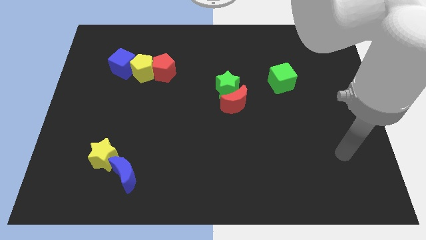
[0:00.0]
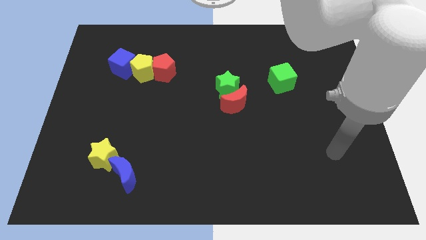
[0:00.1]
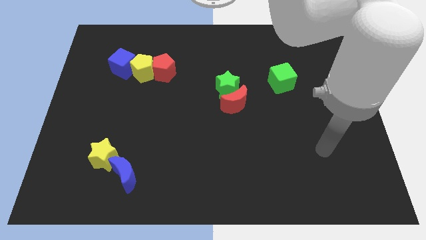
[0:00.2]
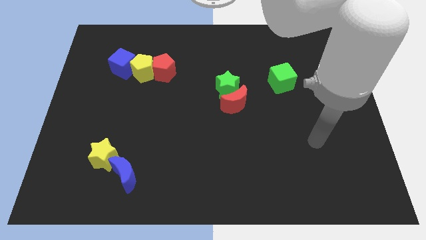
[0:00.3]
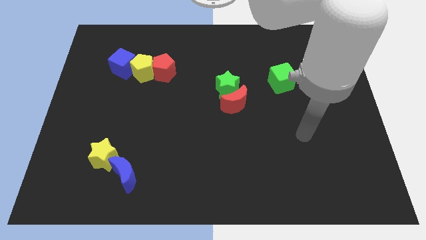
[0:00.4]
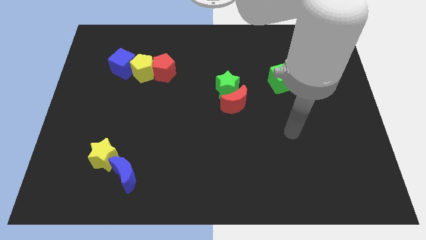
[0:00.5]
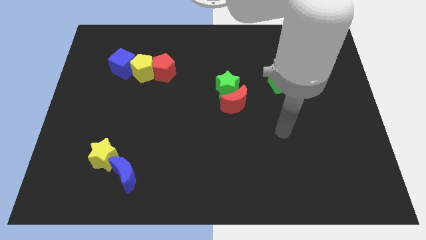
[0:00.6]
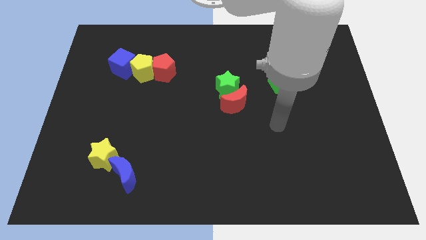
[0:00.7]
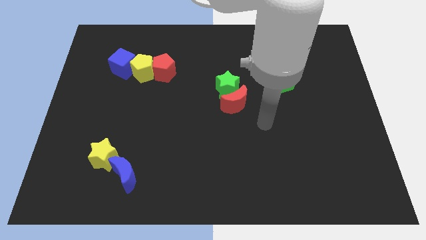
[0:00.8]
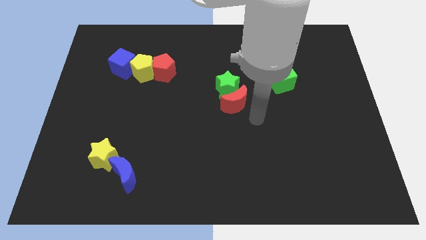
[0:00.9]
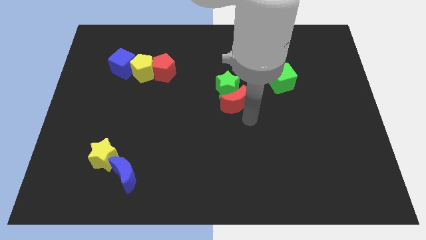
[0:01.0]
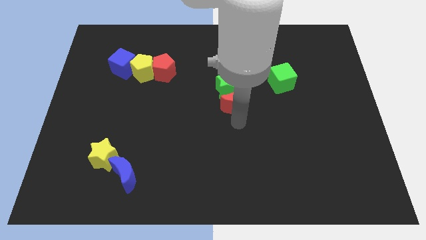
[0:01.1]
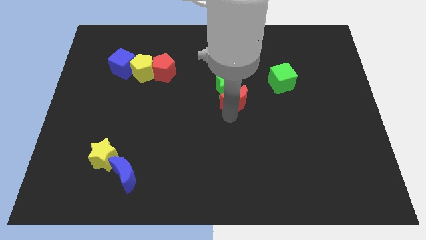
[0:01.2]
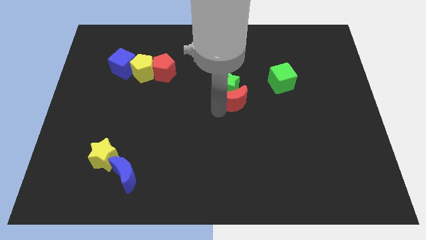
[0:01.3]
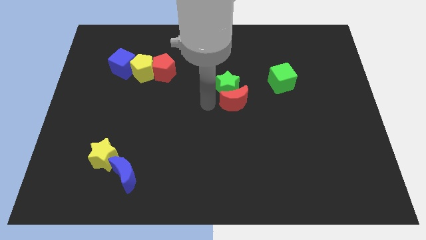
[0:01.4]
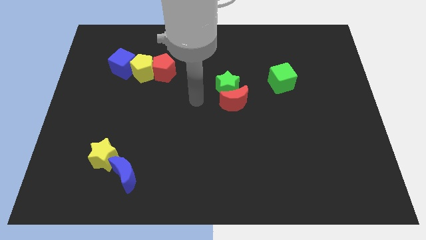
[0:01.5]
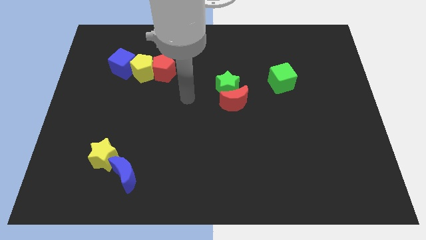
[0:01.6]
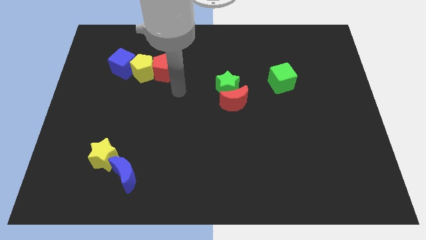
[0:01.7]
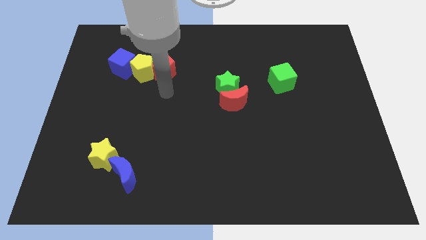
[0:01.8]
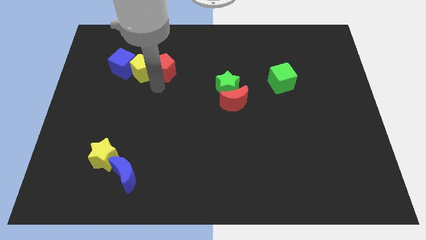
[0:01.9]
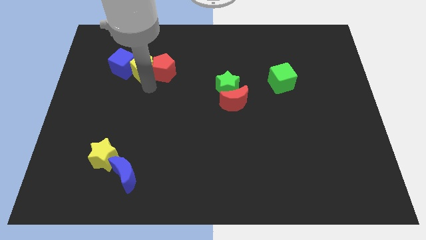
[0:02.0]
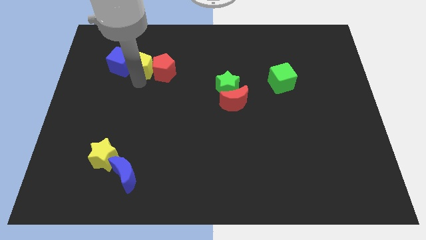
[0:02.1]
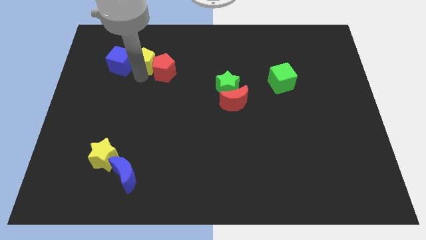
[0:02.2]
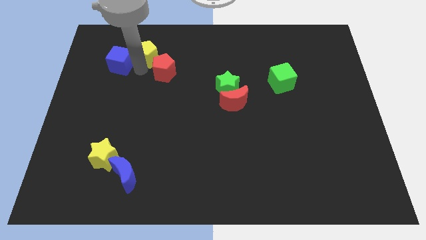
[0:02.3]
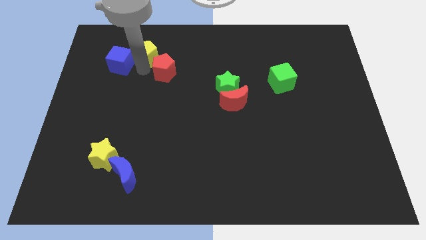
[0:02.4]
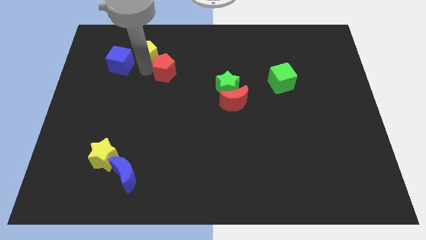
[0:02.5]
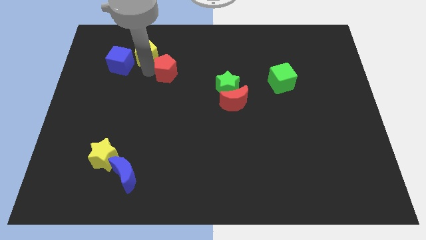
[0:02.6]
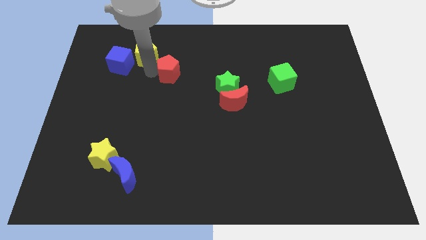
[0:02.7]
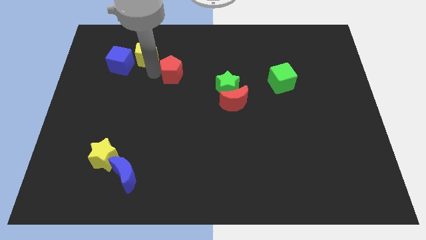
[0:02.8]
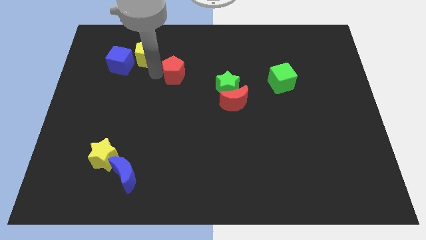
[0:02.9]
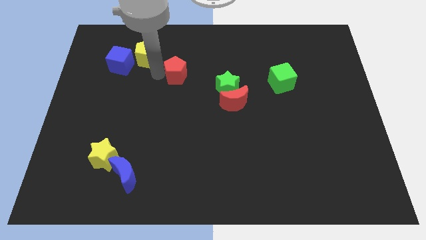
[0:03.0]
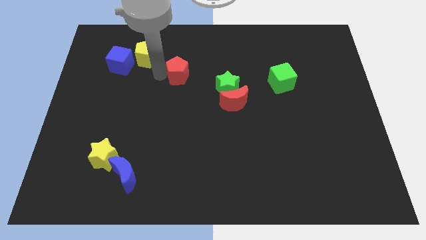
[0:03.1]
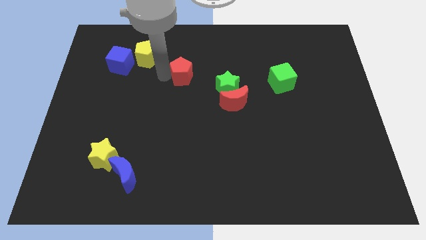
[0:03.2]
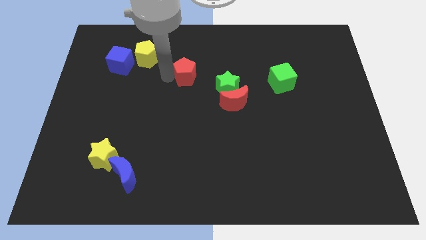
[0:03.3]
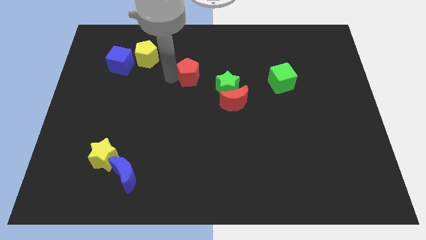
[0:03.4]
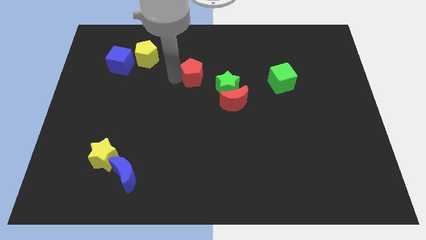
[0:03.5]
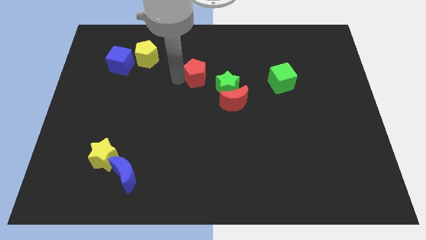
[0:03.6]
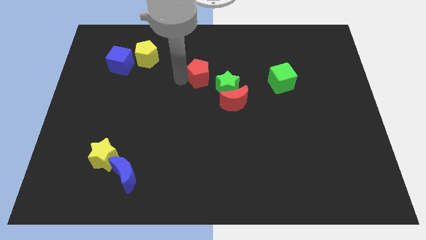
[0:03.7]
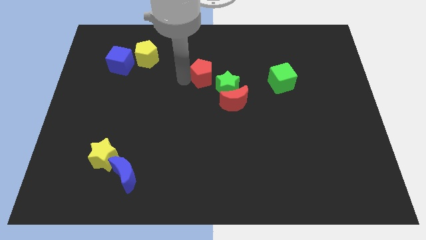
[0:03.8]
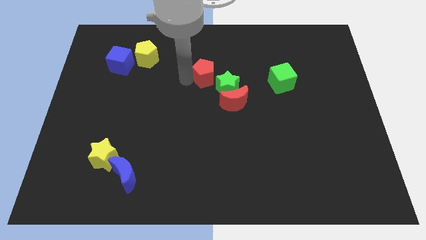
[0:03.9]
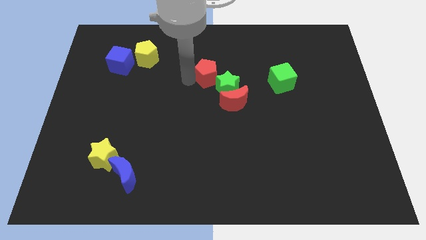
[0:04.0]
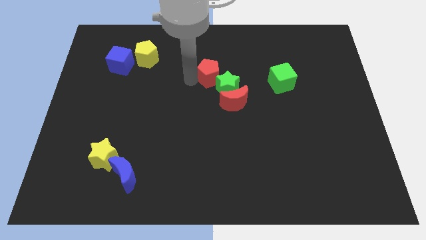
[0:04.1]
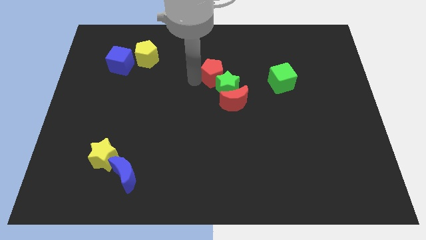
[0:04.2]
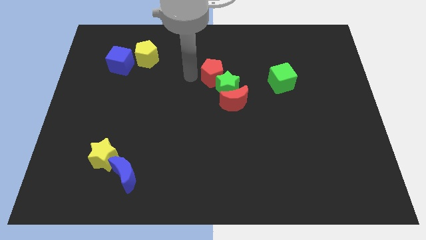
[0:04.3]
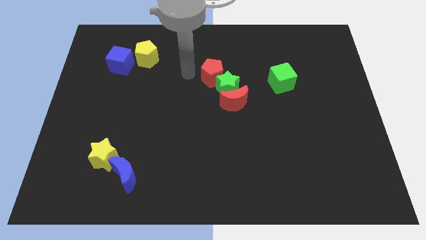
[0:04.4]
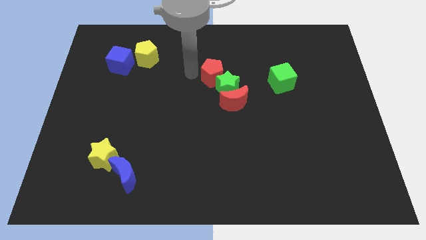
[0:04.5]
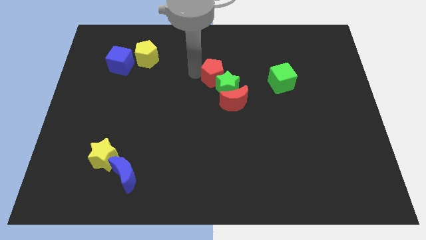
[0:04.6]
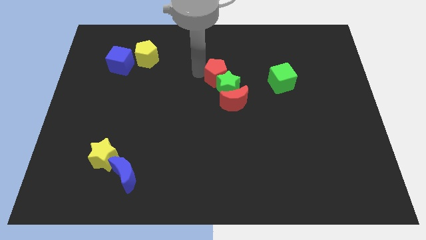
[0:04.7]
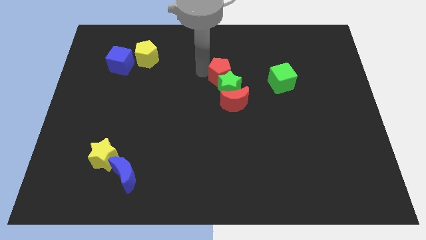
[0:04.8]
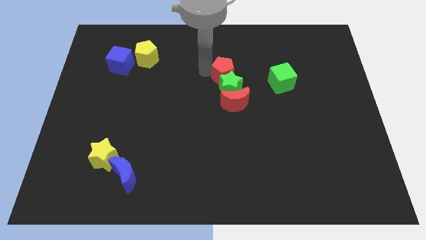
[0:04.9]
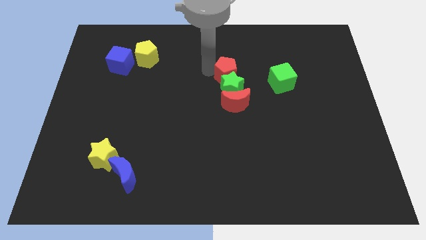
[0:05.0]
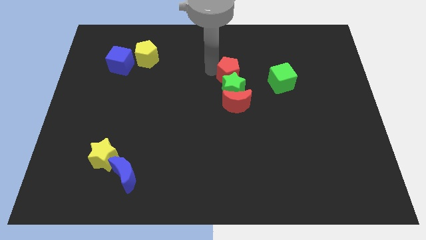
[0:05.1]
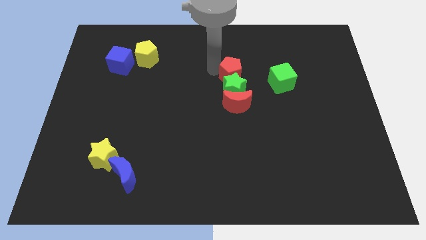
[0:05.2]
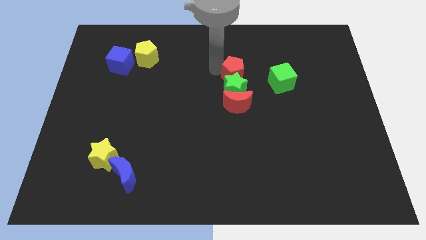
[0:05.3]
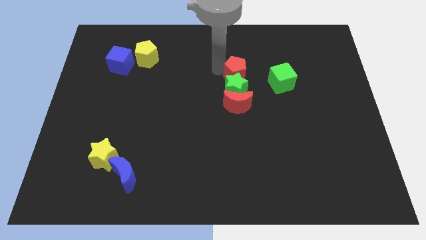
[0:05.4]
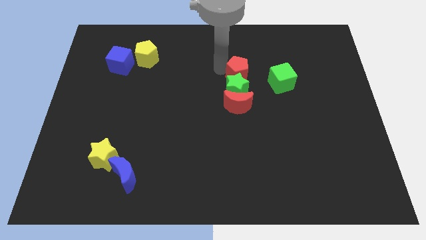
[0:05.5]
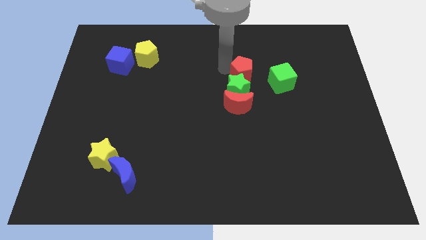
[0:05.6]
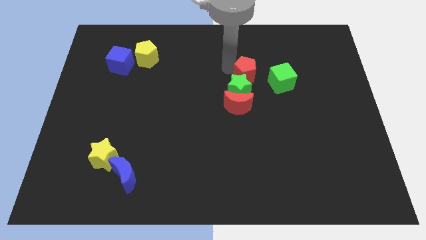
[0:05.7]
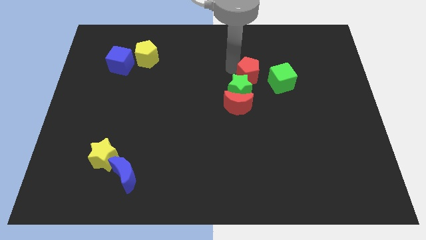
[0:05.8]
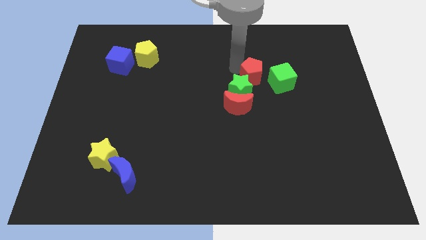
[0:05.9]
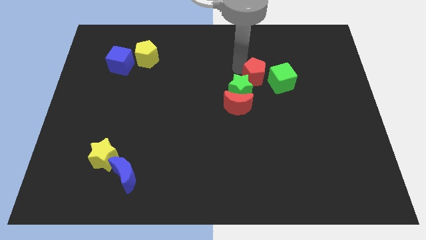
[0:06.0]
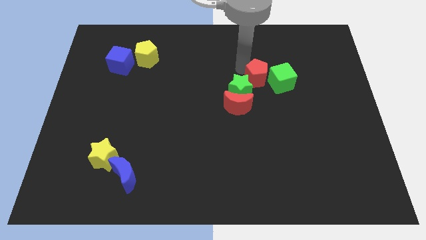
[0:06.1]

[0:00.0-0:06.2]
push the red pentagon towards the green cube

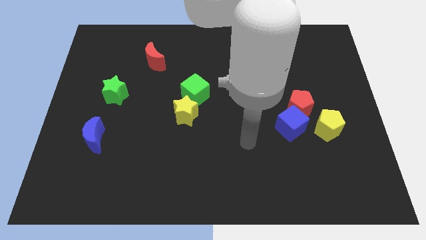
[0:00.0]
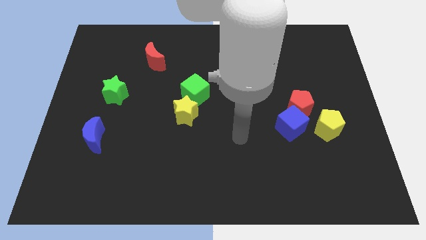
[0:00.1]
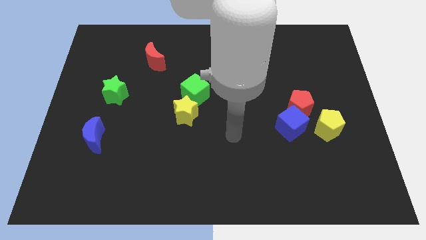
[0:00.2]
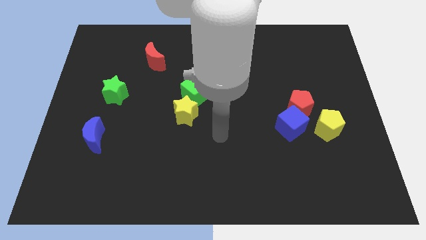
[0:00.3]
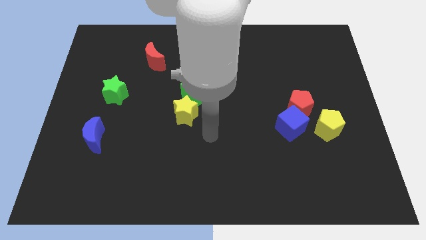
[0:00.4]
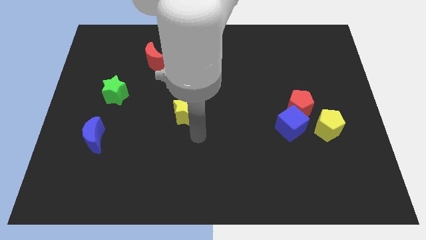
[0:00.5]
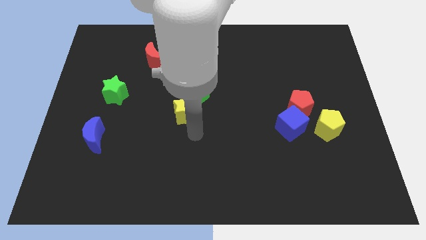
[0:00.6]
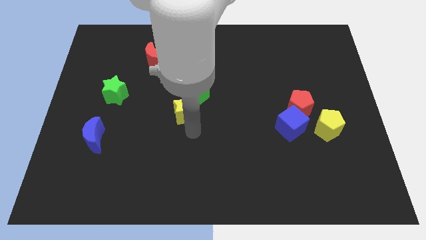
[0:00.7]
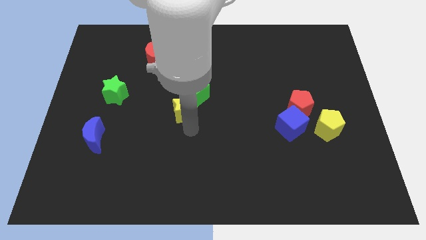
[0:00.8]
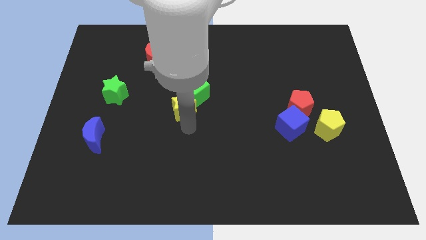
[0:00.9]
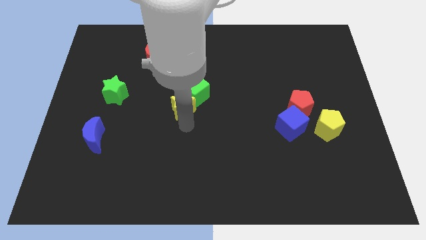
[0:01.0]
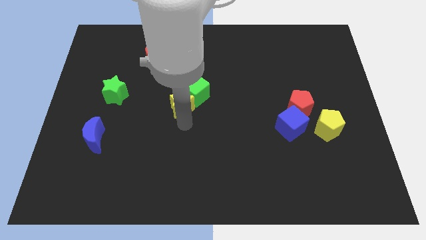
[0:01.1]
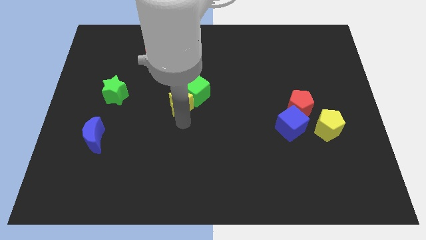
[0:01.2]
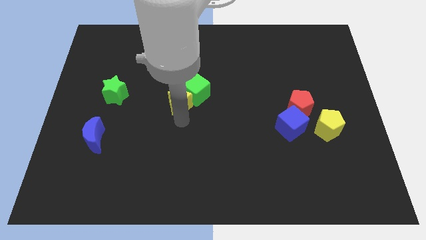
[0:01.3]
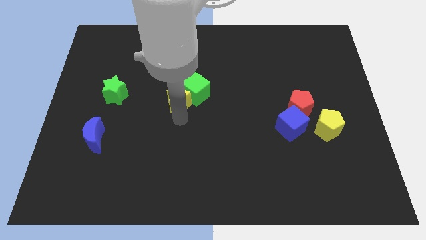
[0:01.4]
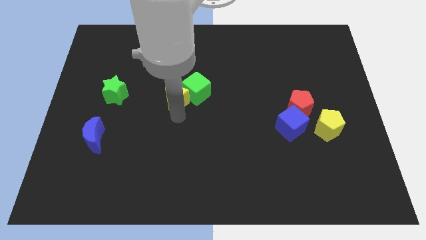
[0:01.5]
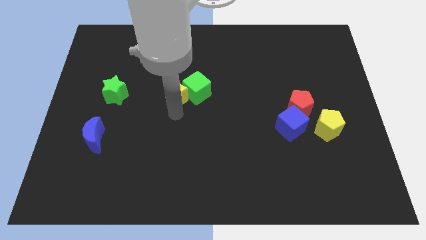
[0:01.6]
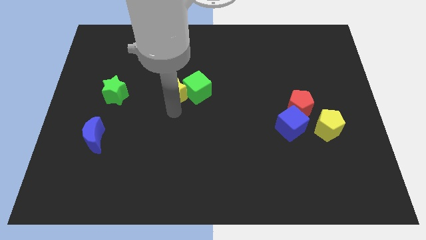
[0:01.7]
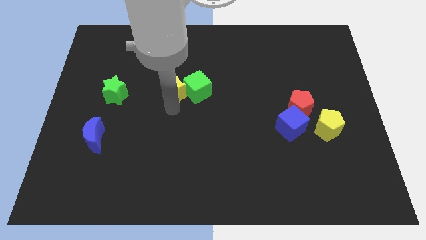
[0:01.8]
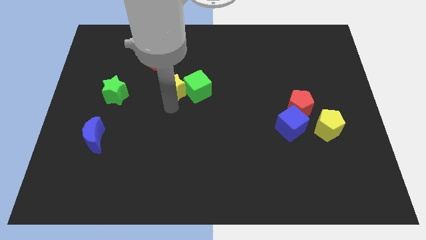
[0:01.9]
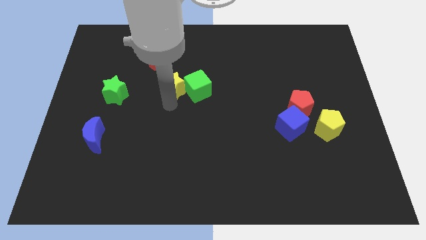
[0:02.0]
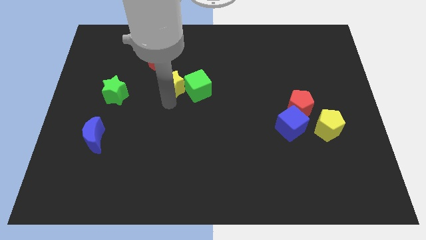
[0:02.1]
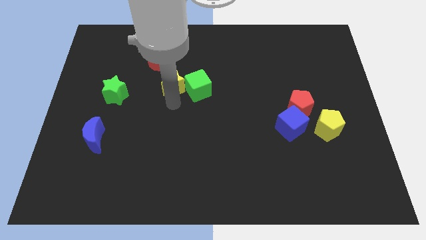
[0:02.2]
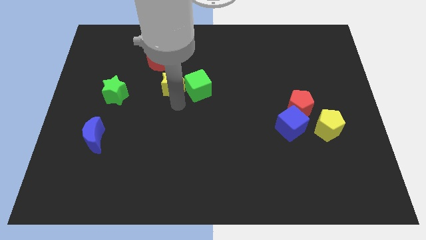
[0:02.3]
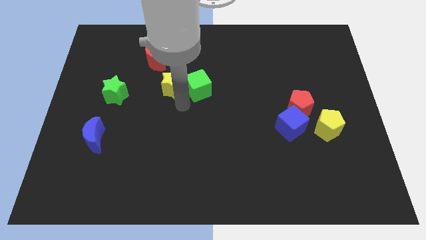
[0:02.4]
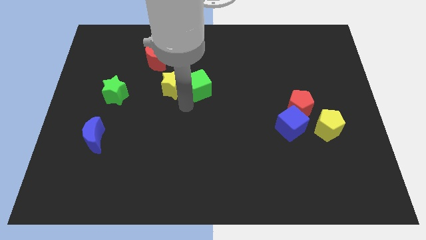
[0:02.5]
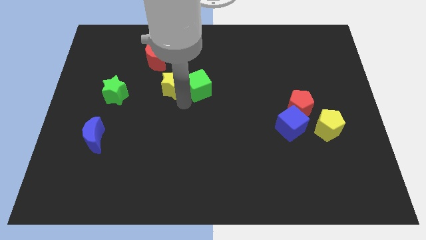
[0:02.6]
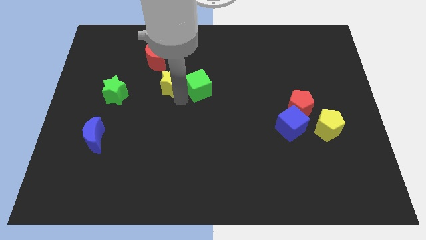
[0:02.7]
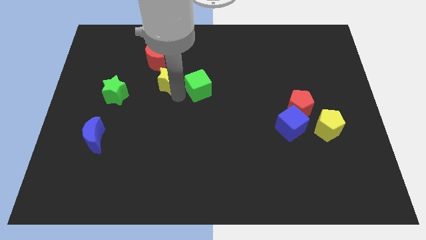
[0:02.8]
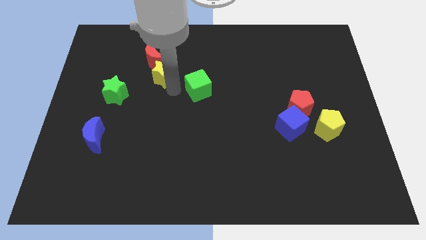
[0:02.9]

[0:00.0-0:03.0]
move the yellow star next to the red moon
